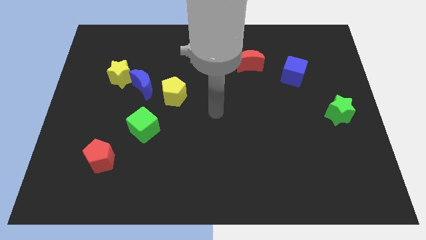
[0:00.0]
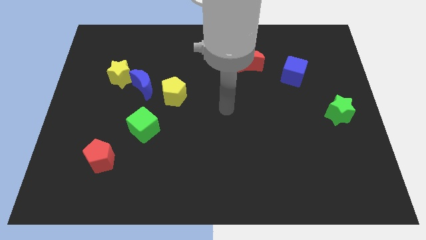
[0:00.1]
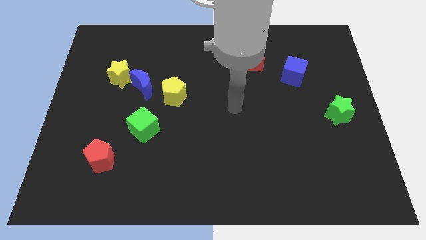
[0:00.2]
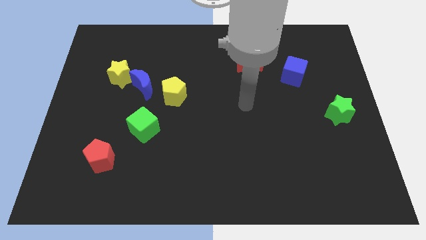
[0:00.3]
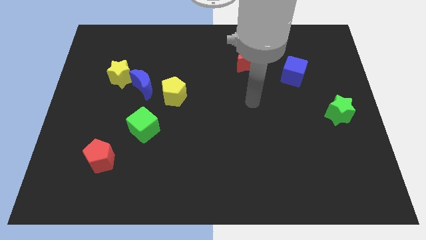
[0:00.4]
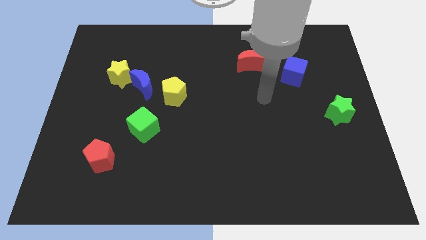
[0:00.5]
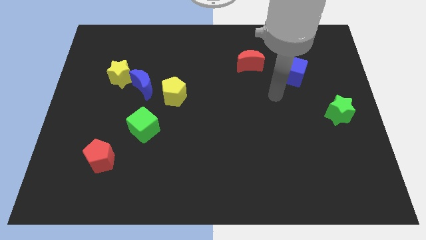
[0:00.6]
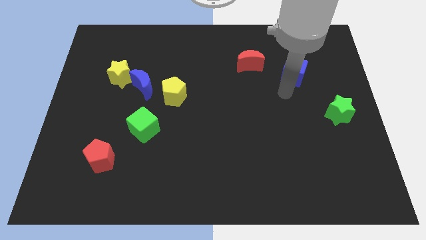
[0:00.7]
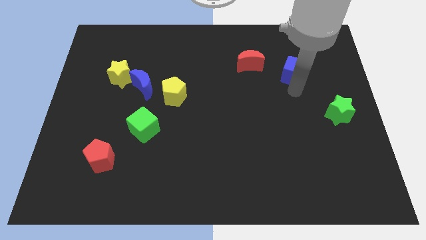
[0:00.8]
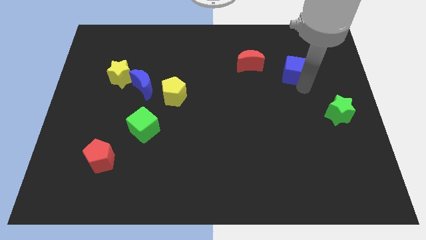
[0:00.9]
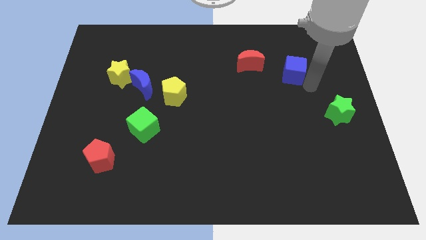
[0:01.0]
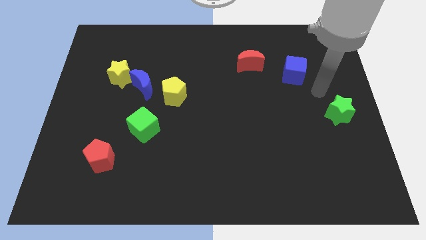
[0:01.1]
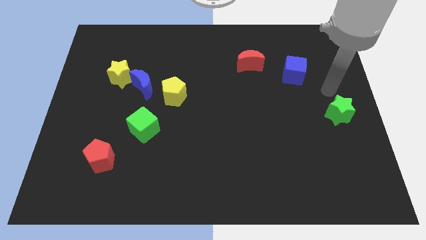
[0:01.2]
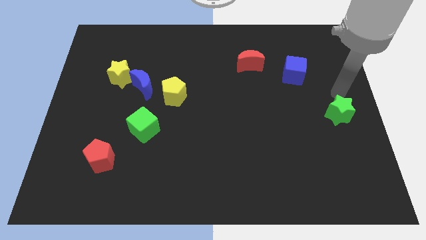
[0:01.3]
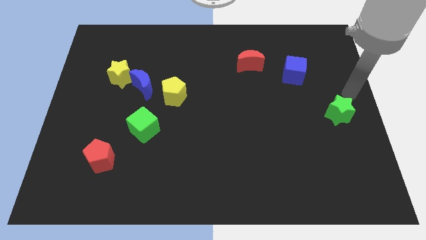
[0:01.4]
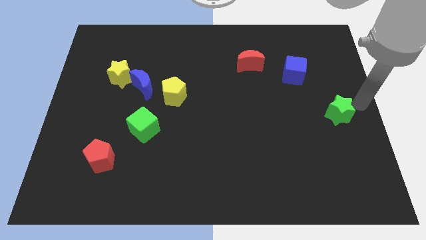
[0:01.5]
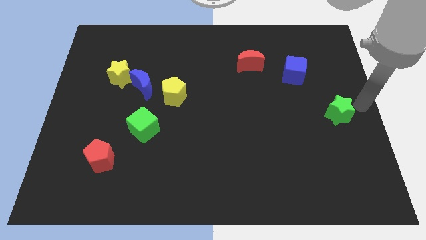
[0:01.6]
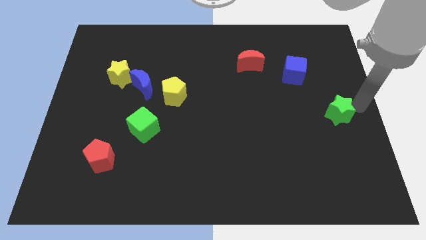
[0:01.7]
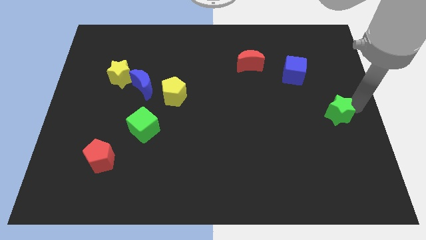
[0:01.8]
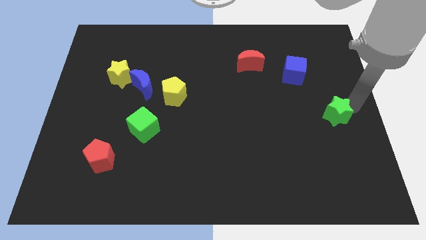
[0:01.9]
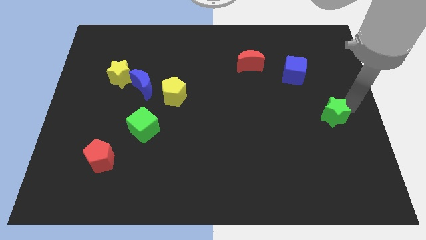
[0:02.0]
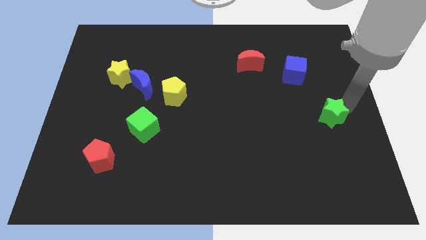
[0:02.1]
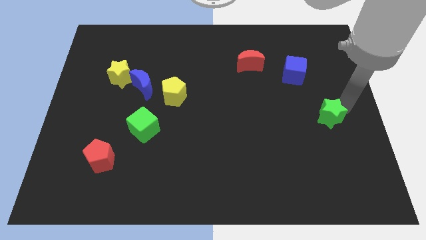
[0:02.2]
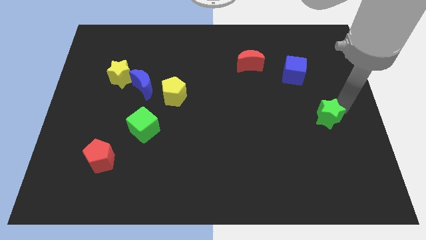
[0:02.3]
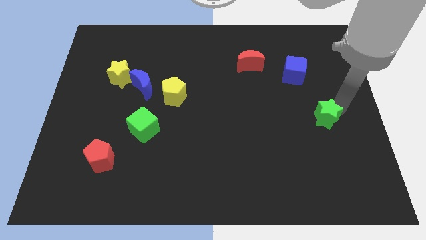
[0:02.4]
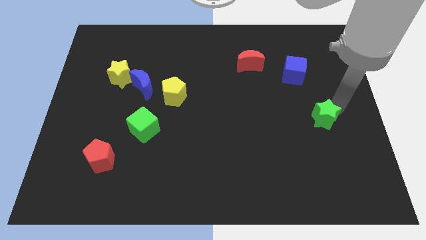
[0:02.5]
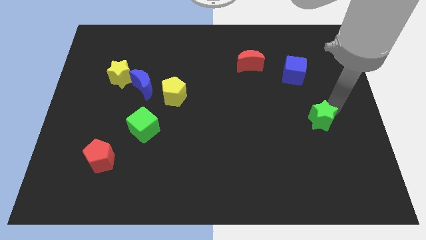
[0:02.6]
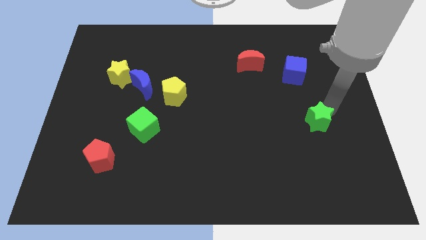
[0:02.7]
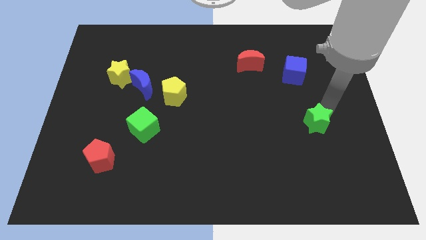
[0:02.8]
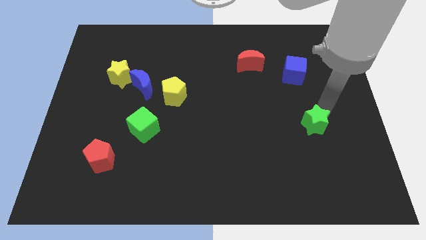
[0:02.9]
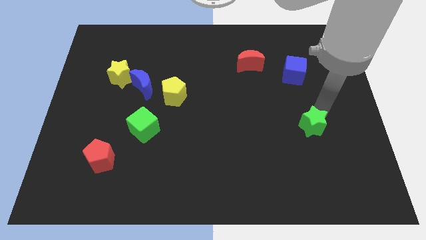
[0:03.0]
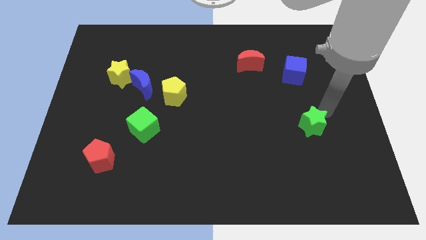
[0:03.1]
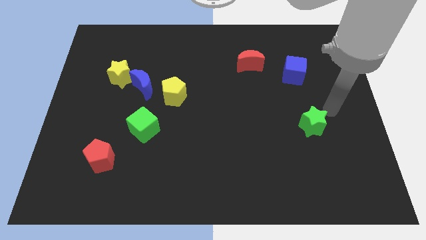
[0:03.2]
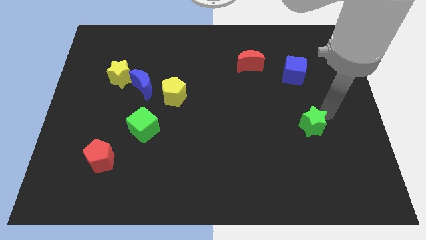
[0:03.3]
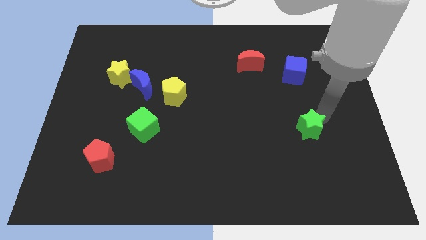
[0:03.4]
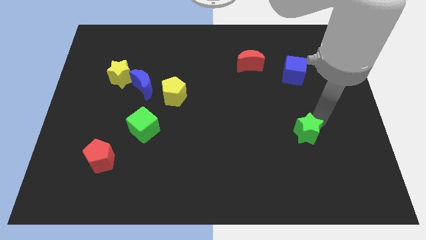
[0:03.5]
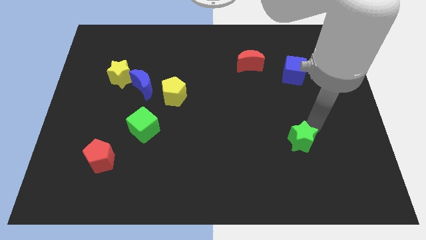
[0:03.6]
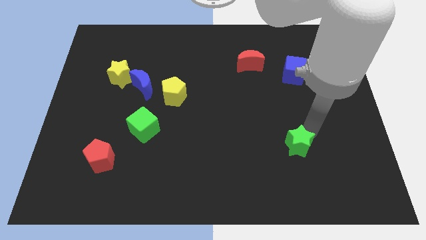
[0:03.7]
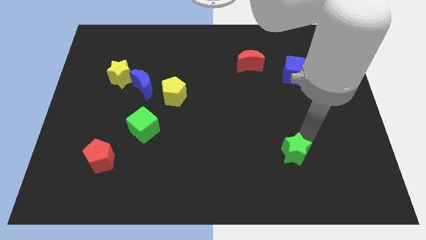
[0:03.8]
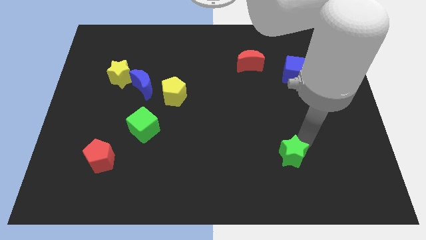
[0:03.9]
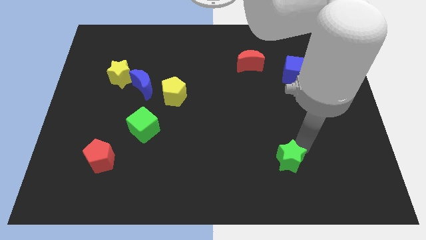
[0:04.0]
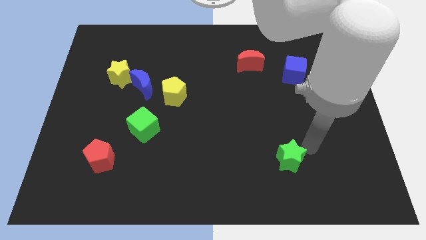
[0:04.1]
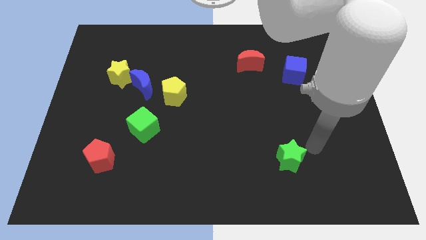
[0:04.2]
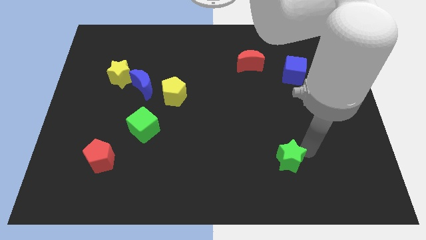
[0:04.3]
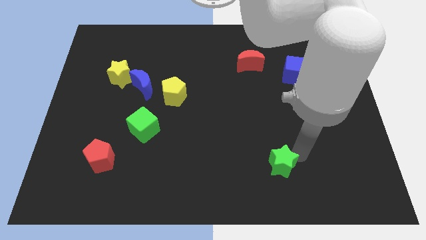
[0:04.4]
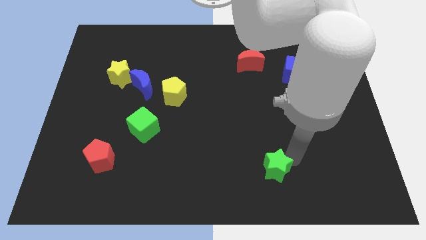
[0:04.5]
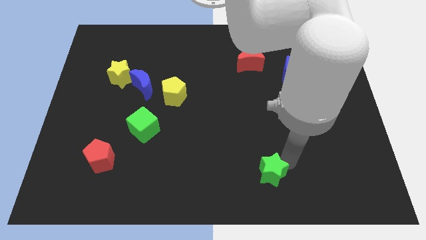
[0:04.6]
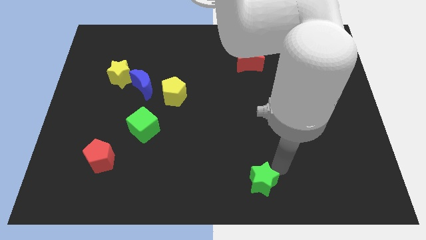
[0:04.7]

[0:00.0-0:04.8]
put the green star to the bottom side

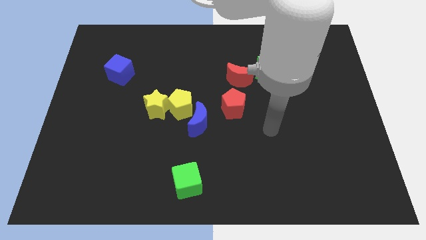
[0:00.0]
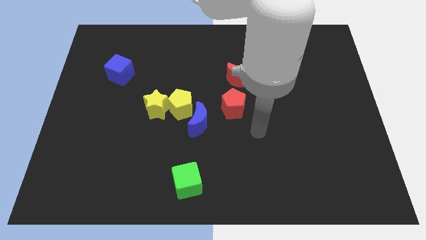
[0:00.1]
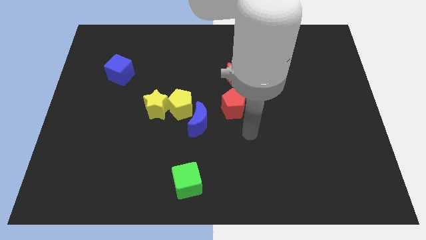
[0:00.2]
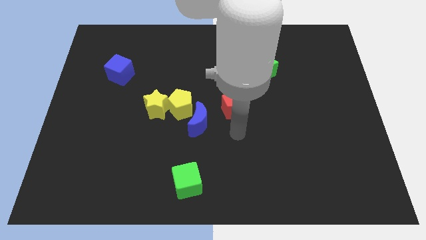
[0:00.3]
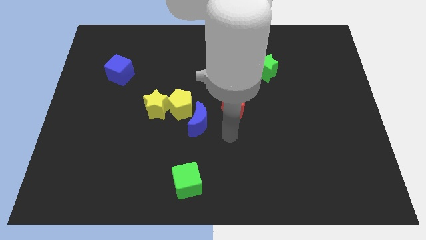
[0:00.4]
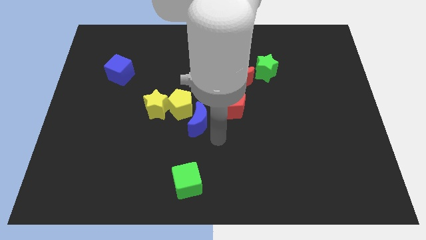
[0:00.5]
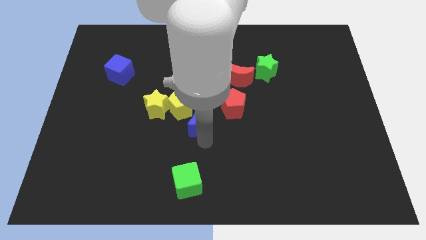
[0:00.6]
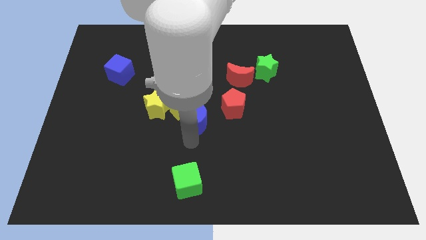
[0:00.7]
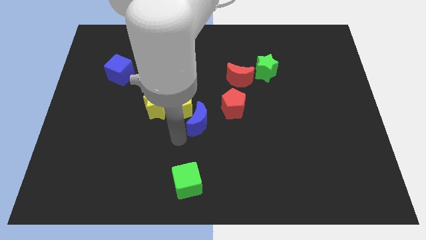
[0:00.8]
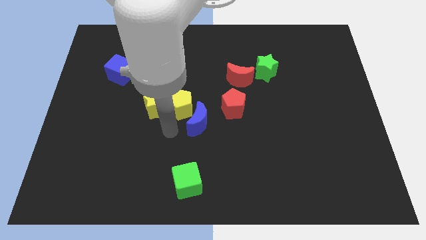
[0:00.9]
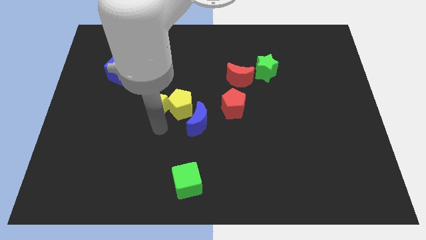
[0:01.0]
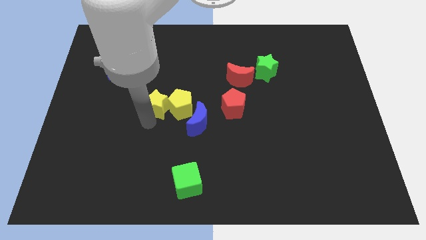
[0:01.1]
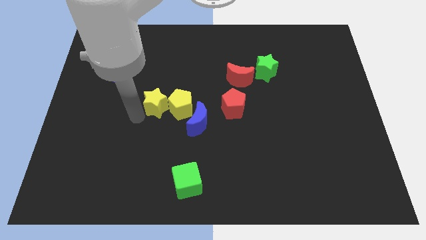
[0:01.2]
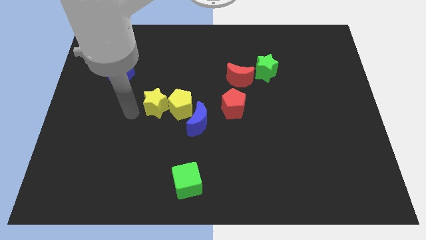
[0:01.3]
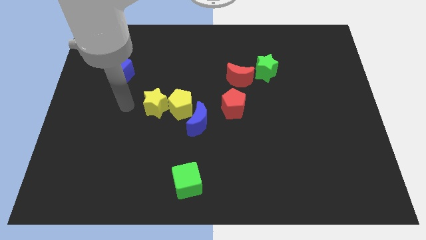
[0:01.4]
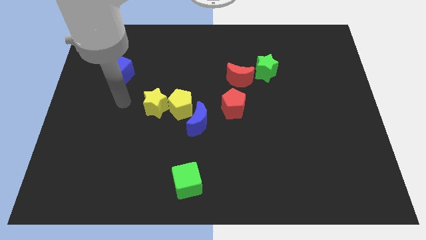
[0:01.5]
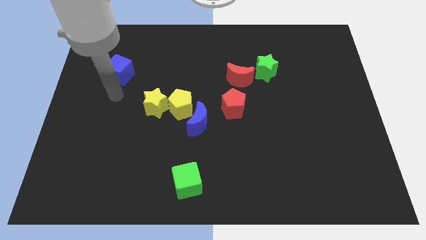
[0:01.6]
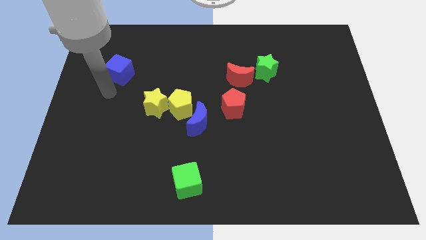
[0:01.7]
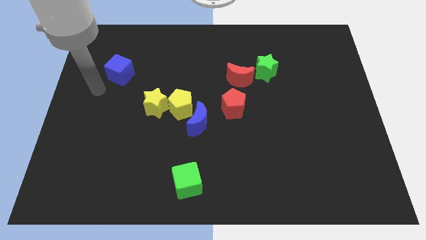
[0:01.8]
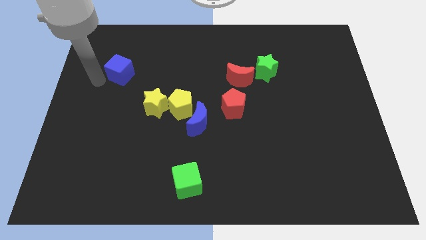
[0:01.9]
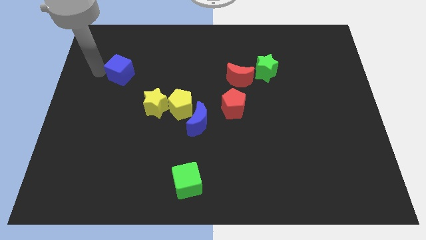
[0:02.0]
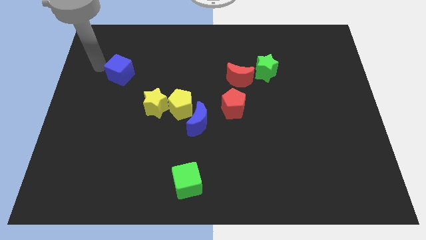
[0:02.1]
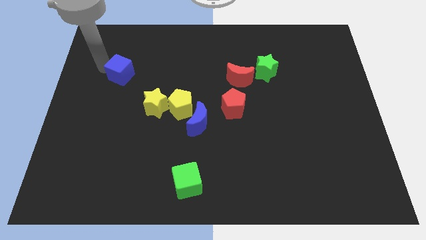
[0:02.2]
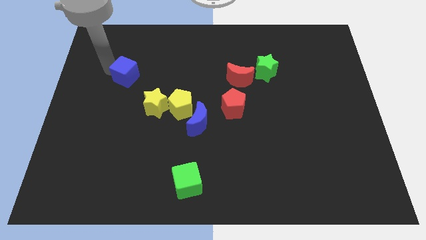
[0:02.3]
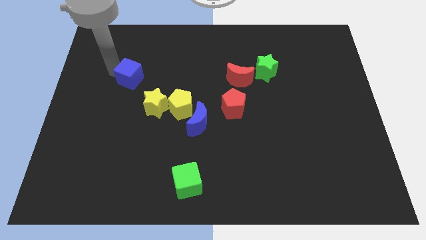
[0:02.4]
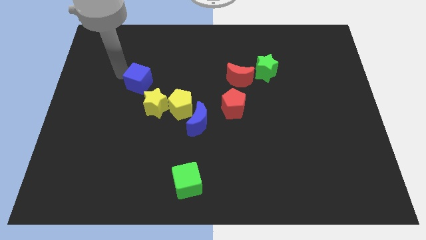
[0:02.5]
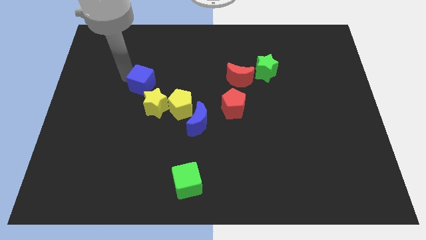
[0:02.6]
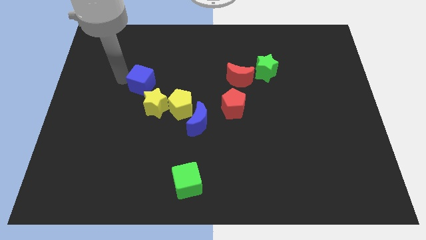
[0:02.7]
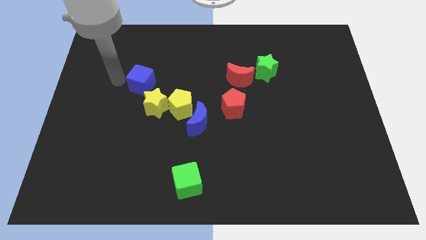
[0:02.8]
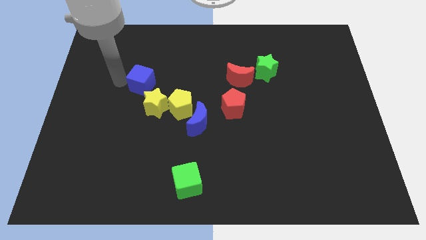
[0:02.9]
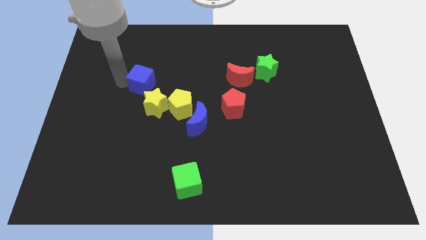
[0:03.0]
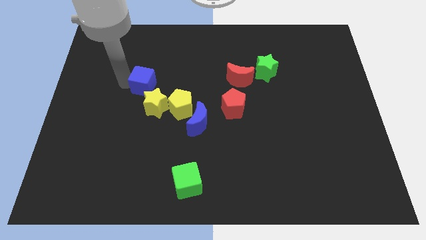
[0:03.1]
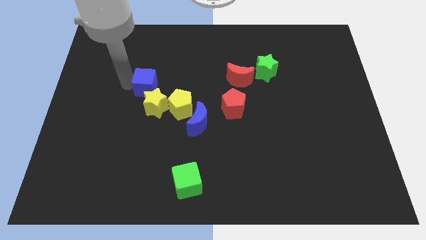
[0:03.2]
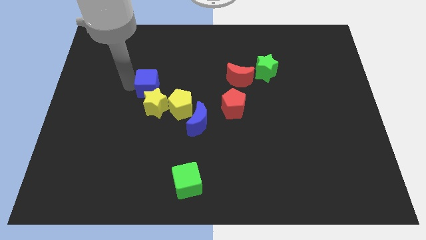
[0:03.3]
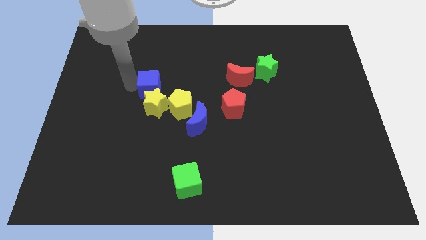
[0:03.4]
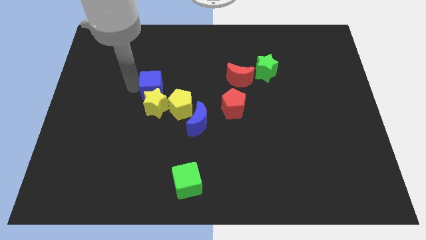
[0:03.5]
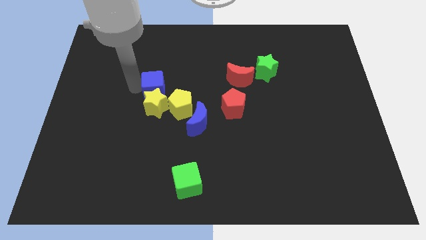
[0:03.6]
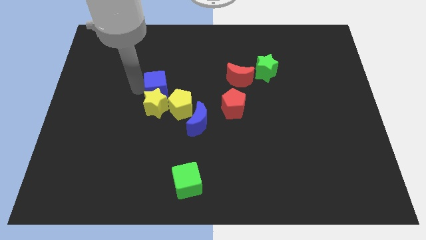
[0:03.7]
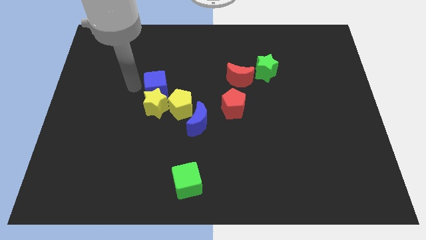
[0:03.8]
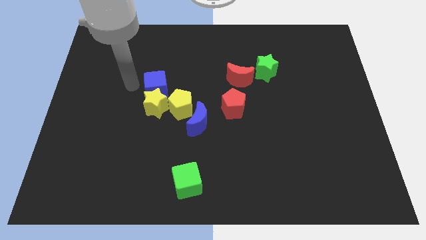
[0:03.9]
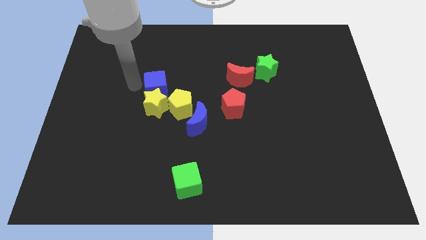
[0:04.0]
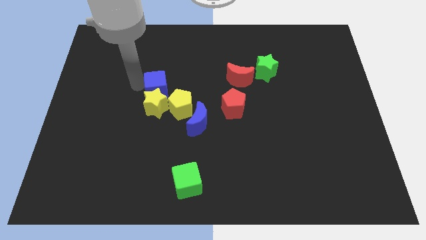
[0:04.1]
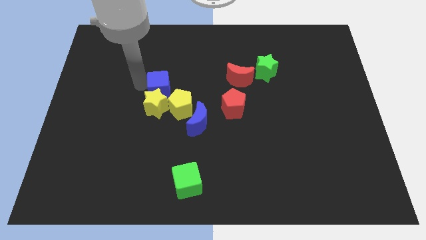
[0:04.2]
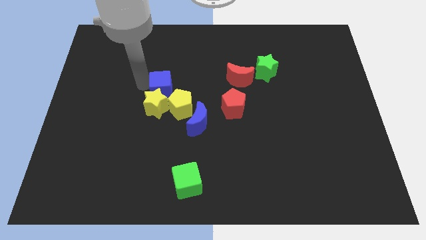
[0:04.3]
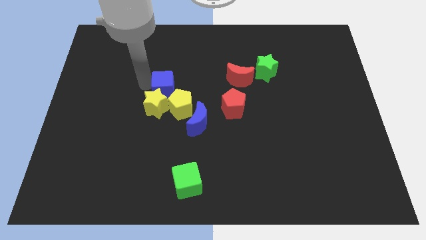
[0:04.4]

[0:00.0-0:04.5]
move the blue cube to the center of the board
